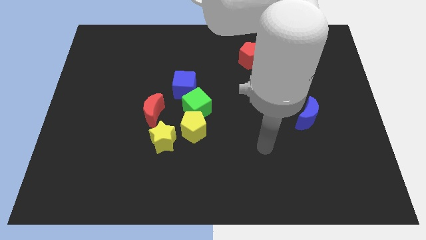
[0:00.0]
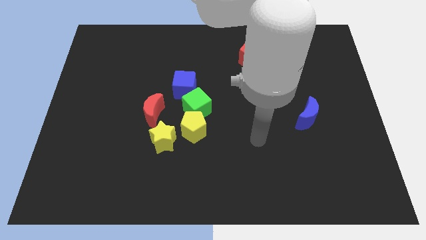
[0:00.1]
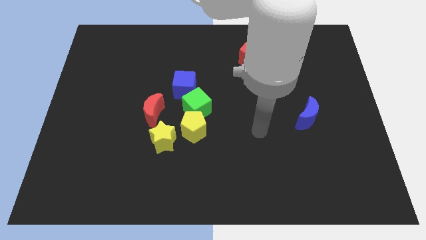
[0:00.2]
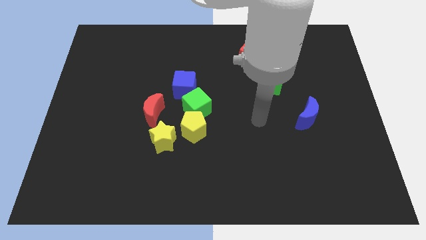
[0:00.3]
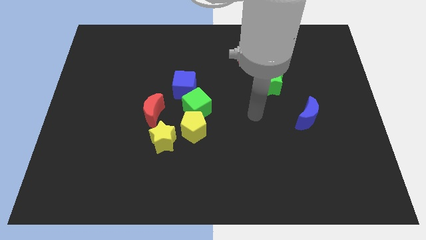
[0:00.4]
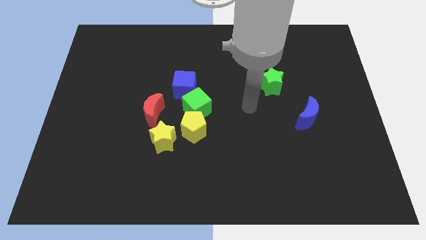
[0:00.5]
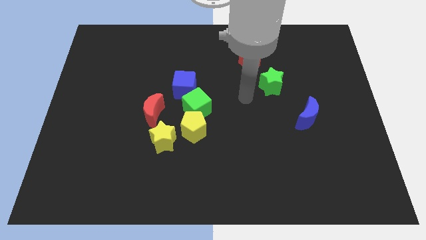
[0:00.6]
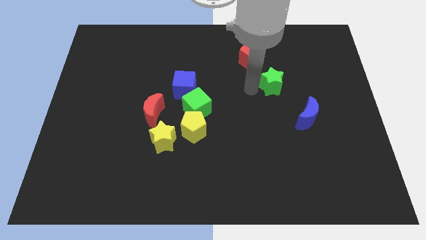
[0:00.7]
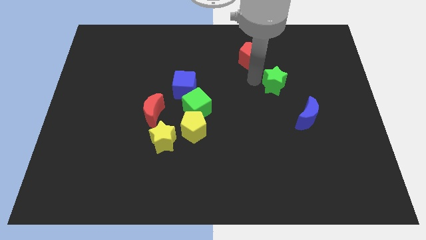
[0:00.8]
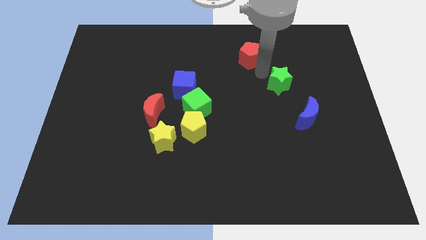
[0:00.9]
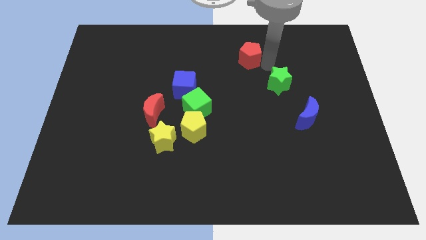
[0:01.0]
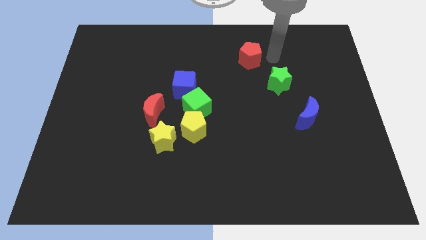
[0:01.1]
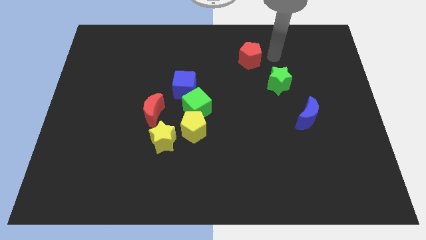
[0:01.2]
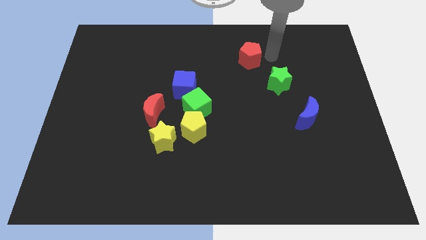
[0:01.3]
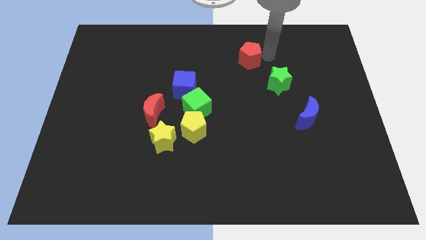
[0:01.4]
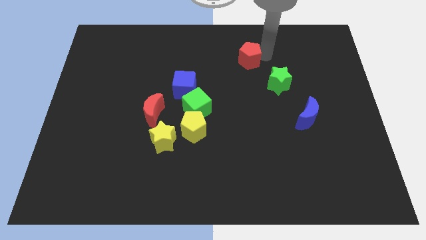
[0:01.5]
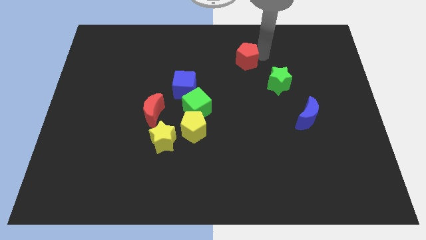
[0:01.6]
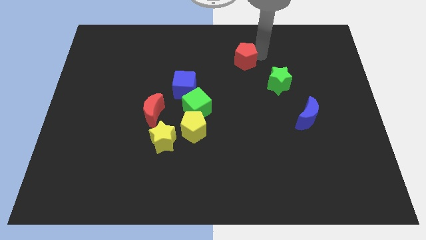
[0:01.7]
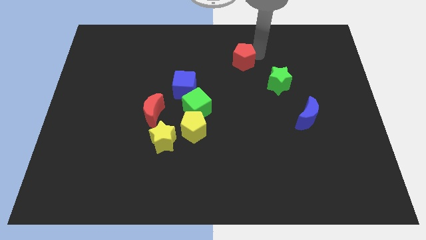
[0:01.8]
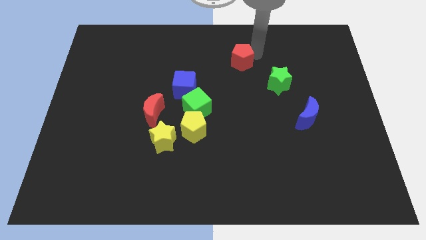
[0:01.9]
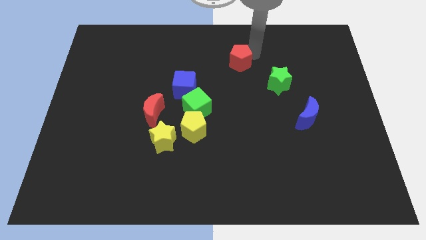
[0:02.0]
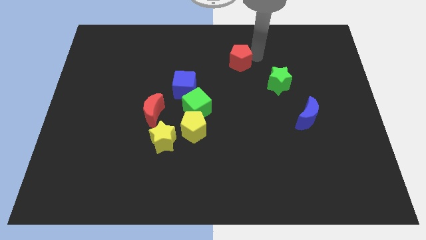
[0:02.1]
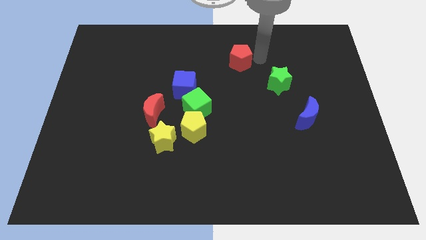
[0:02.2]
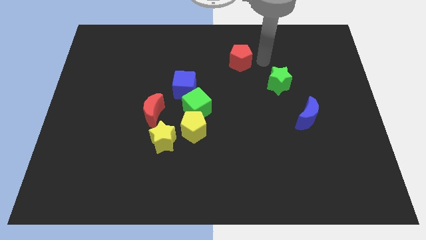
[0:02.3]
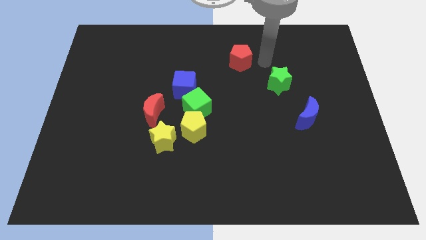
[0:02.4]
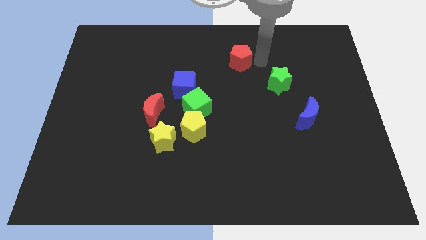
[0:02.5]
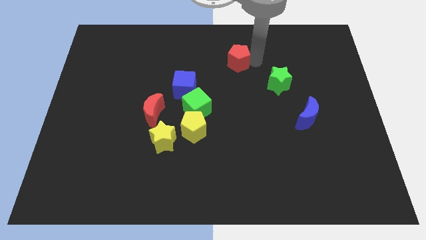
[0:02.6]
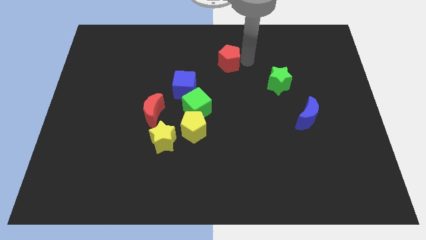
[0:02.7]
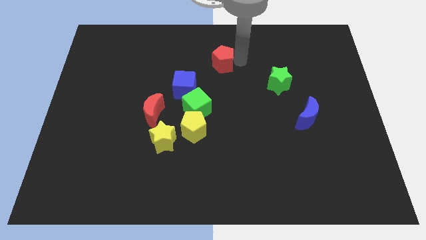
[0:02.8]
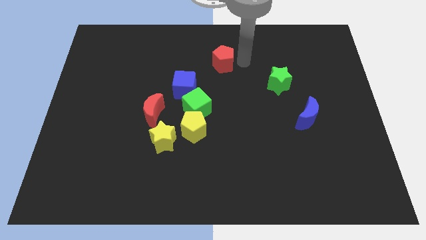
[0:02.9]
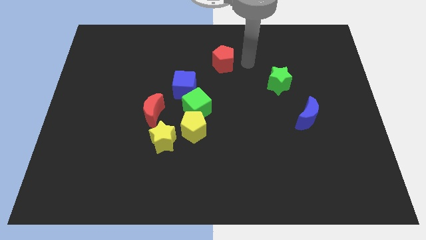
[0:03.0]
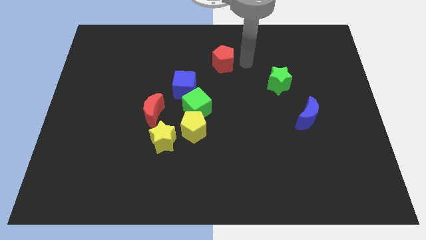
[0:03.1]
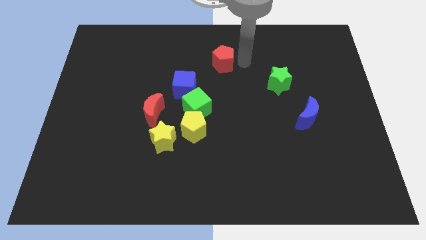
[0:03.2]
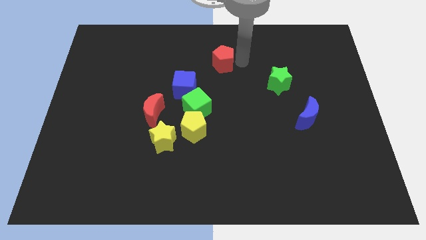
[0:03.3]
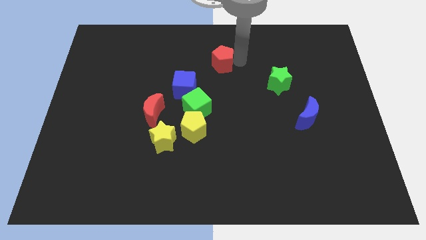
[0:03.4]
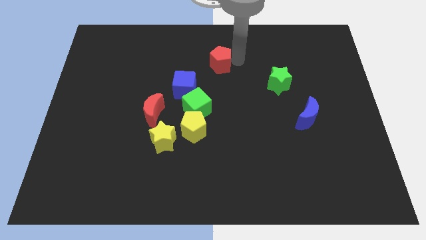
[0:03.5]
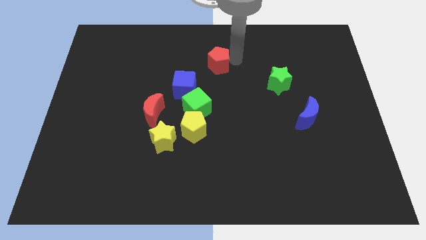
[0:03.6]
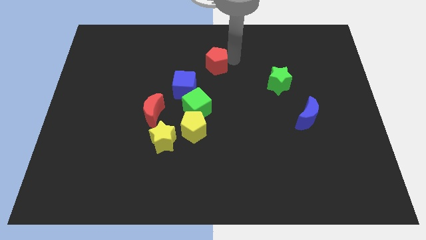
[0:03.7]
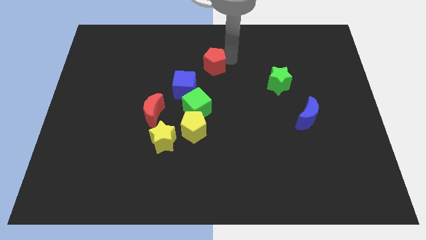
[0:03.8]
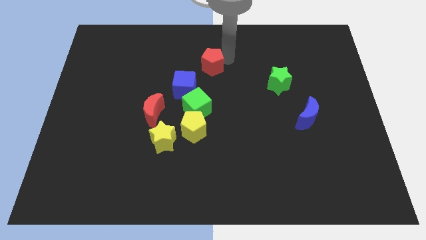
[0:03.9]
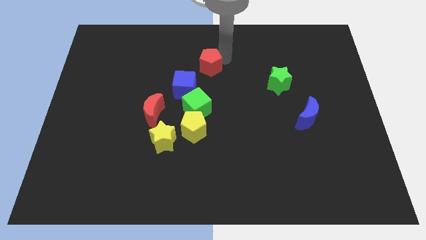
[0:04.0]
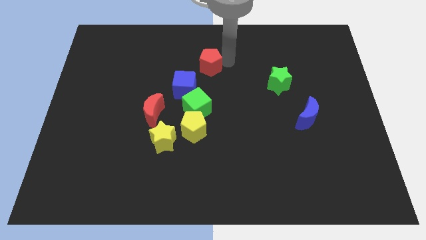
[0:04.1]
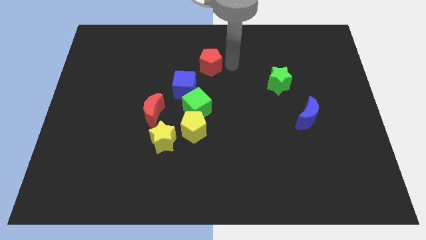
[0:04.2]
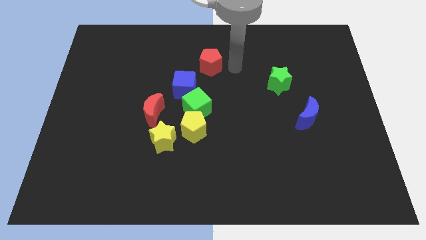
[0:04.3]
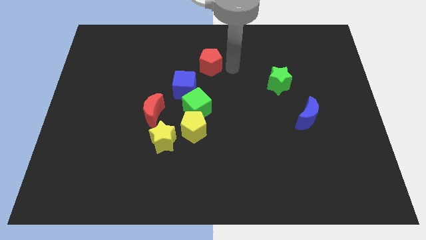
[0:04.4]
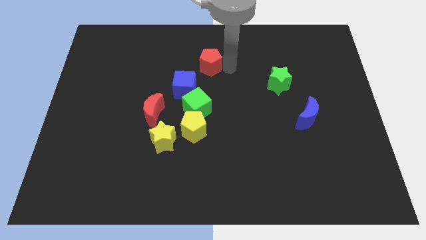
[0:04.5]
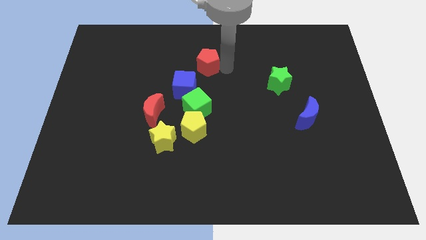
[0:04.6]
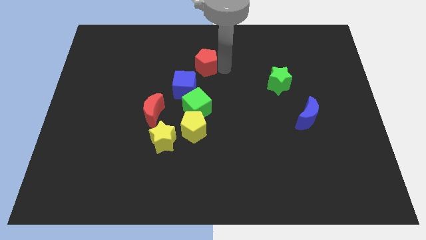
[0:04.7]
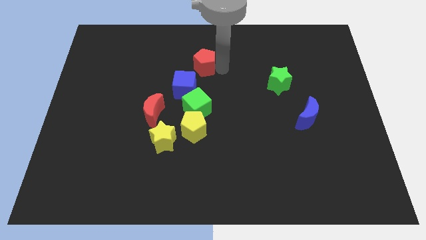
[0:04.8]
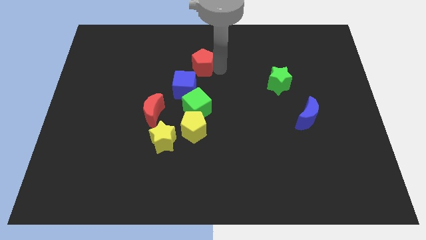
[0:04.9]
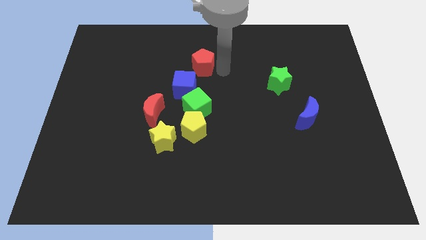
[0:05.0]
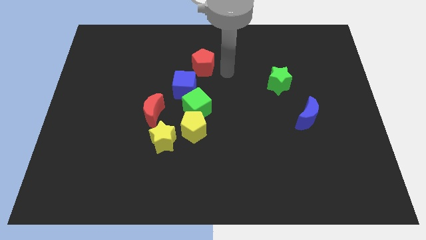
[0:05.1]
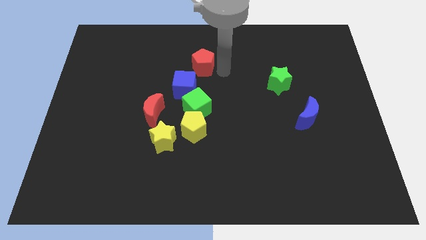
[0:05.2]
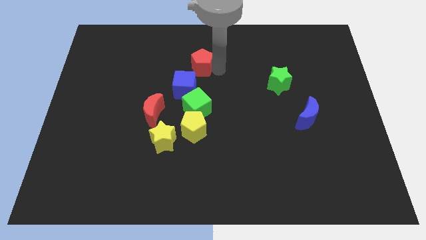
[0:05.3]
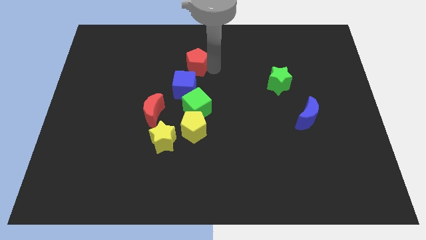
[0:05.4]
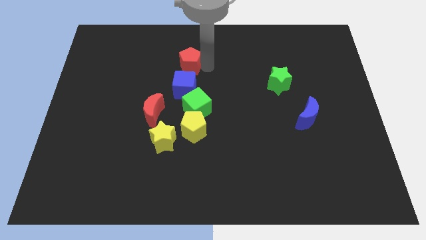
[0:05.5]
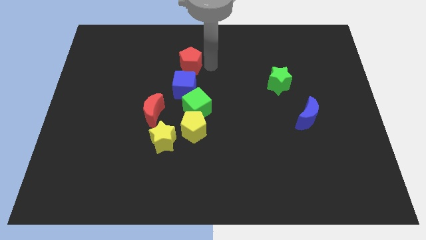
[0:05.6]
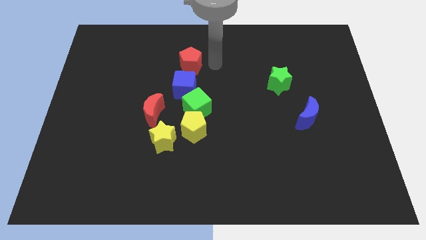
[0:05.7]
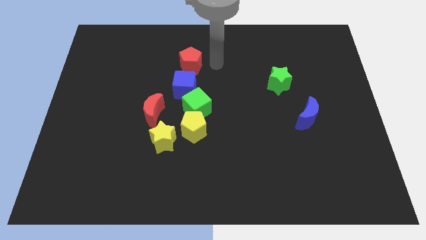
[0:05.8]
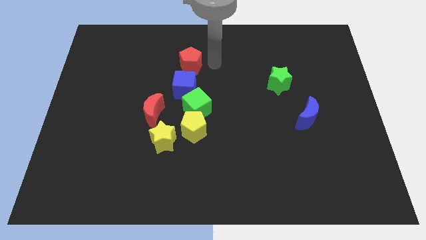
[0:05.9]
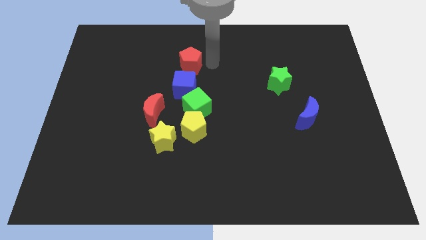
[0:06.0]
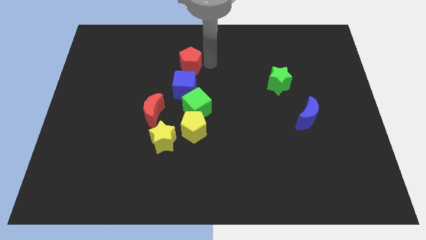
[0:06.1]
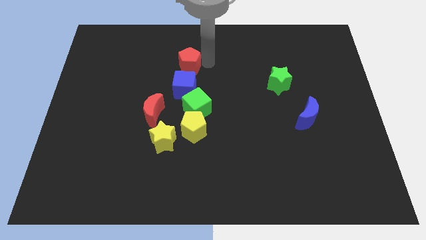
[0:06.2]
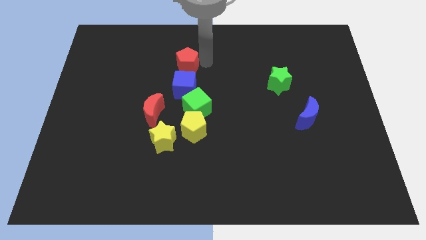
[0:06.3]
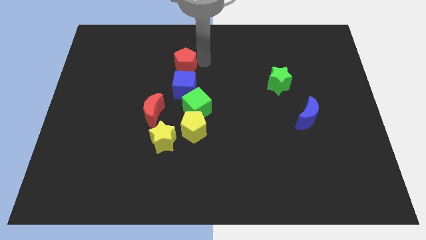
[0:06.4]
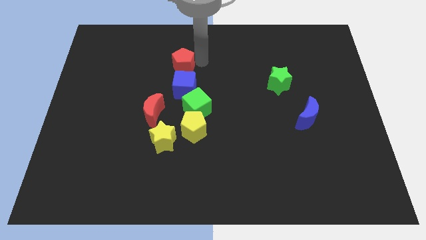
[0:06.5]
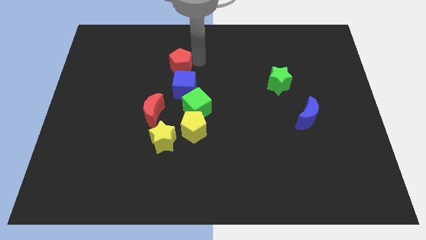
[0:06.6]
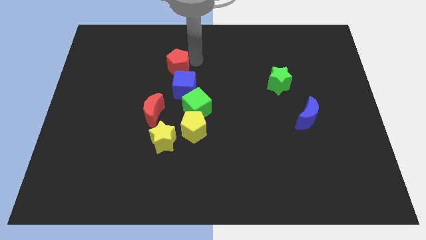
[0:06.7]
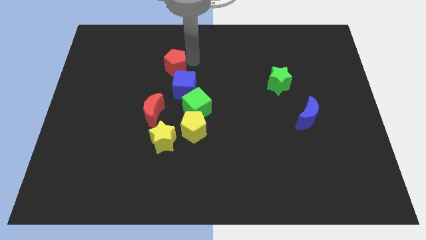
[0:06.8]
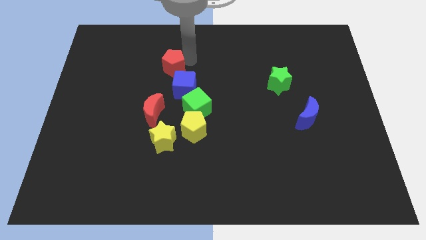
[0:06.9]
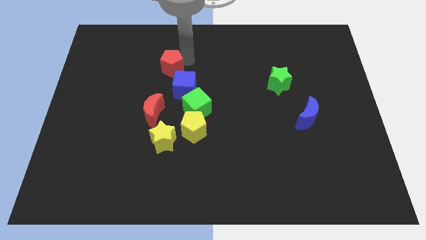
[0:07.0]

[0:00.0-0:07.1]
move the red pentagon left

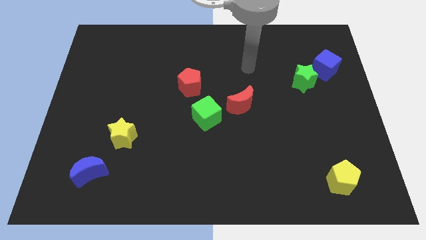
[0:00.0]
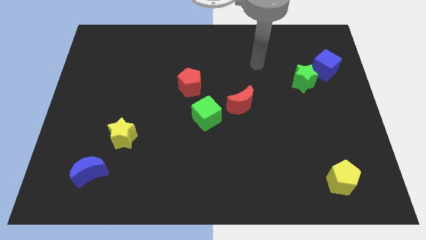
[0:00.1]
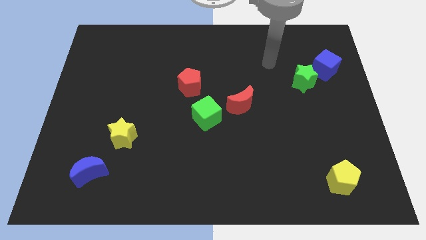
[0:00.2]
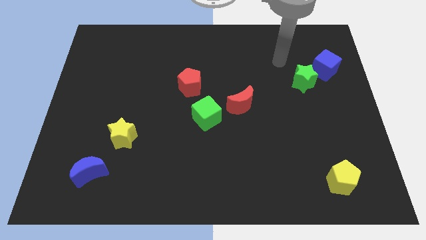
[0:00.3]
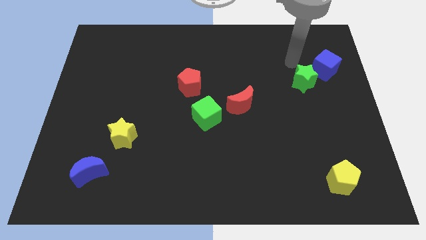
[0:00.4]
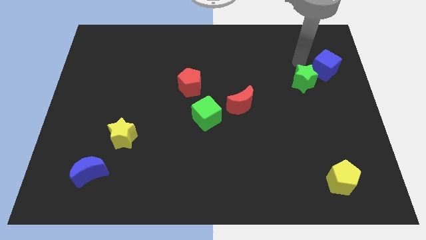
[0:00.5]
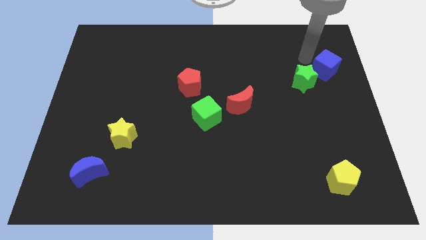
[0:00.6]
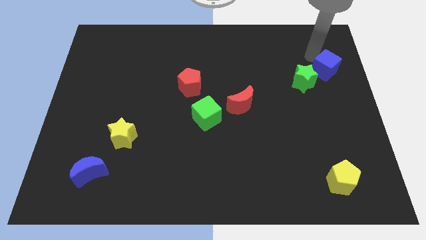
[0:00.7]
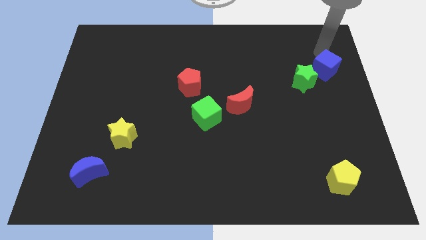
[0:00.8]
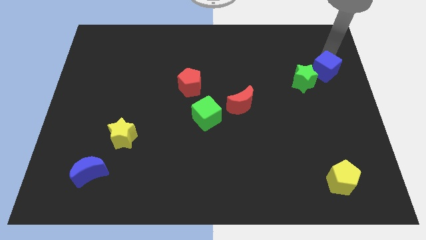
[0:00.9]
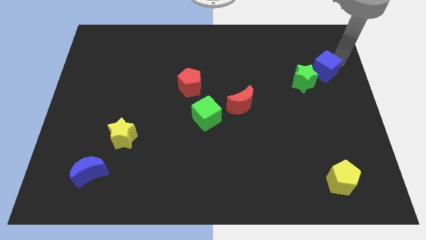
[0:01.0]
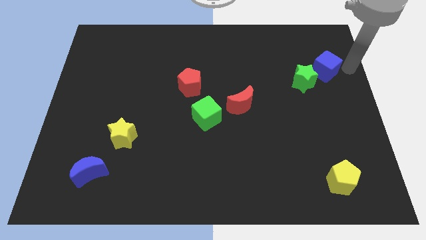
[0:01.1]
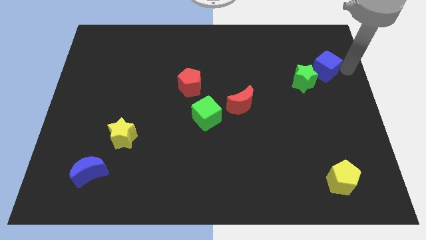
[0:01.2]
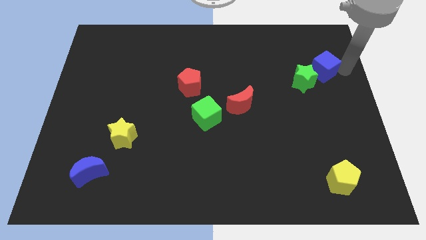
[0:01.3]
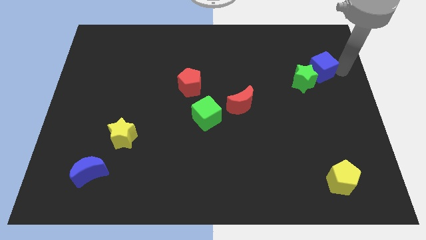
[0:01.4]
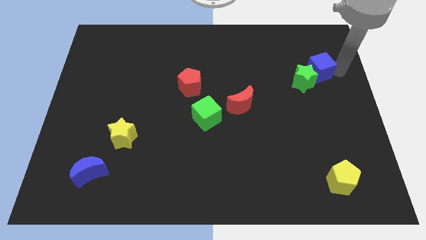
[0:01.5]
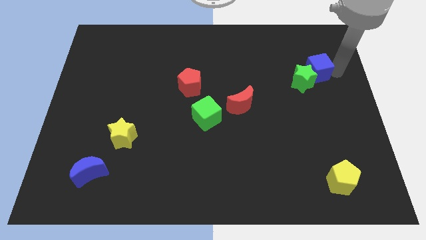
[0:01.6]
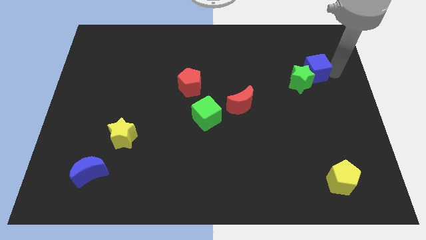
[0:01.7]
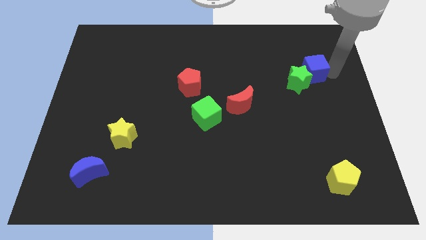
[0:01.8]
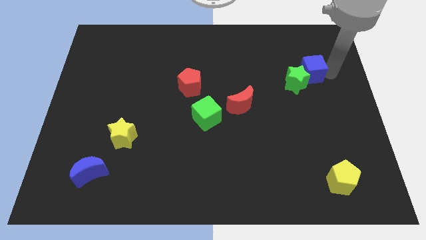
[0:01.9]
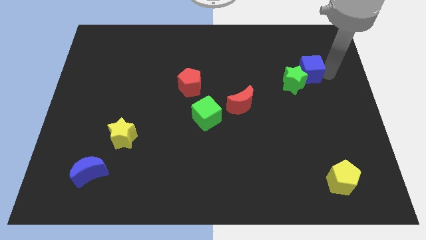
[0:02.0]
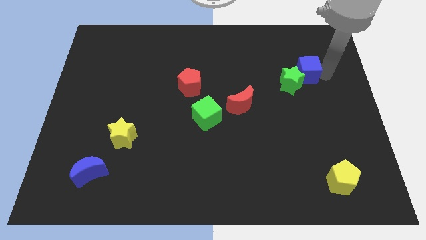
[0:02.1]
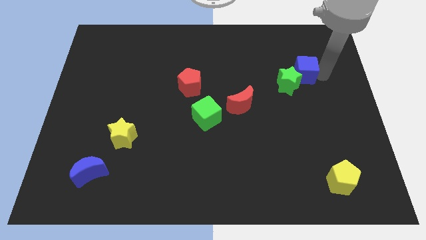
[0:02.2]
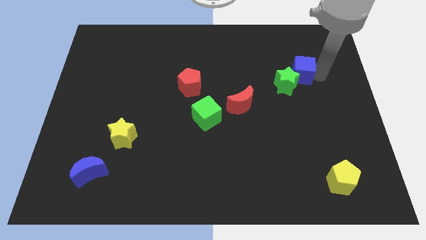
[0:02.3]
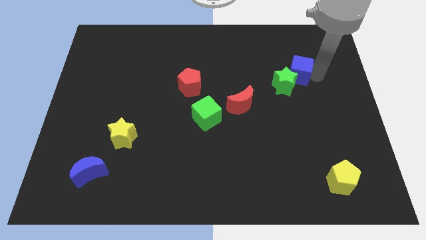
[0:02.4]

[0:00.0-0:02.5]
move the blue cube slightly left
